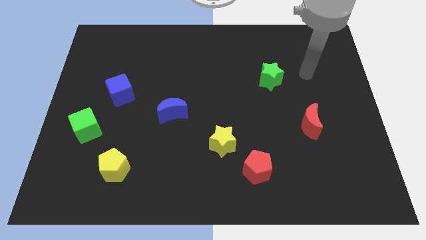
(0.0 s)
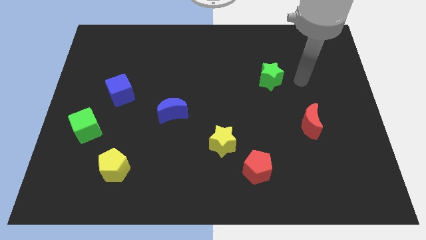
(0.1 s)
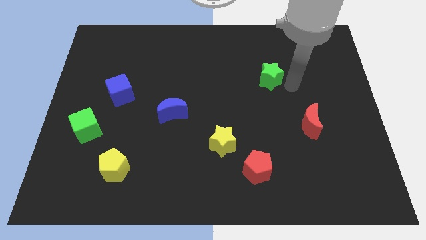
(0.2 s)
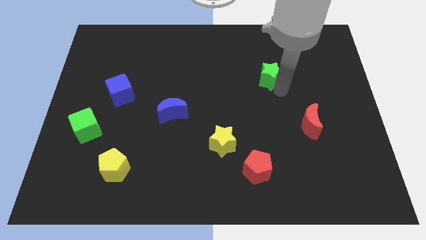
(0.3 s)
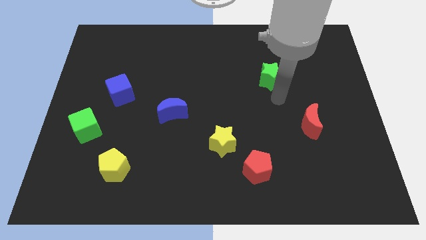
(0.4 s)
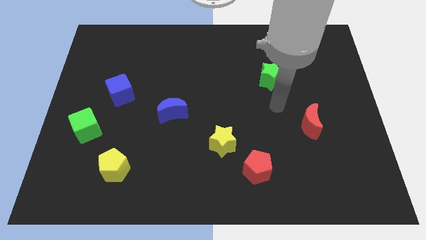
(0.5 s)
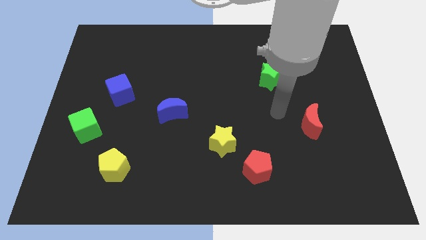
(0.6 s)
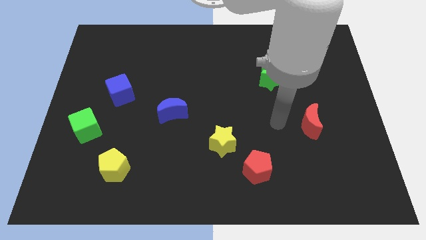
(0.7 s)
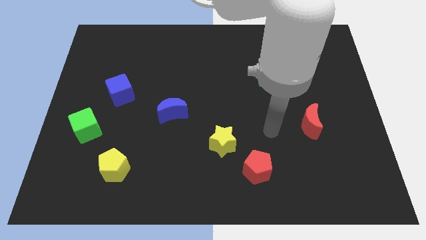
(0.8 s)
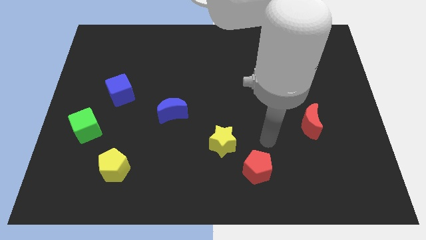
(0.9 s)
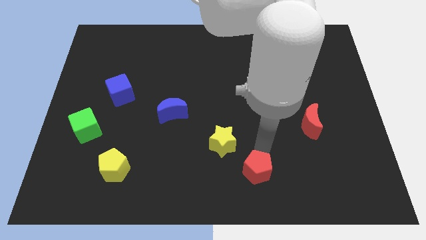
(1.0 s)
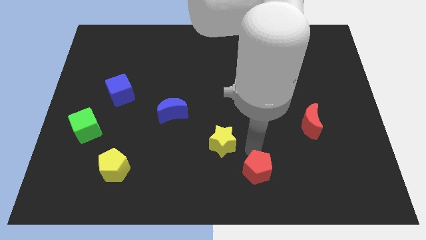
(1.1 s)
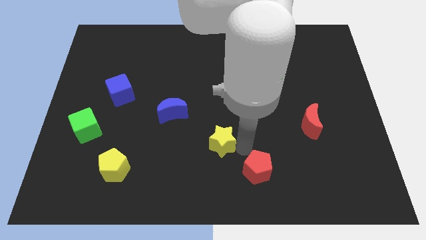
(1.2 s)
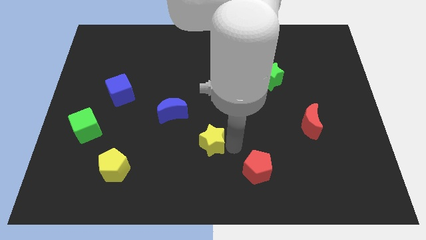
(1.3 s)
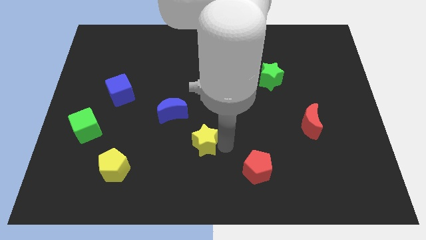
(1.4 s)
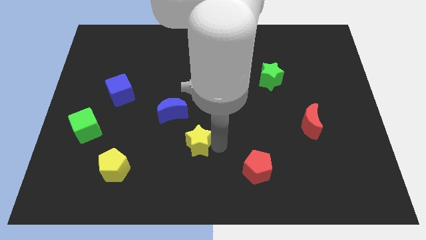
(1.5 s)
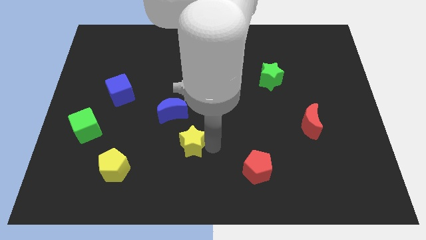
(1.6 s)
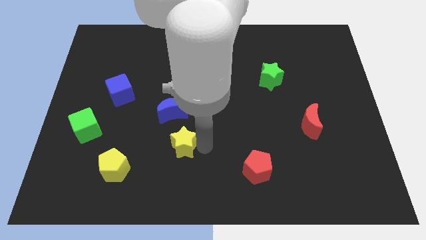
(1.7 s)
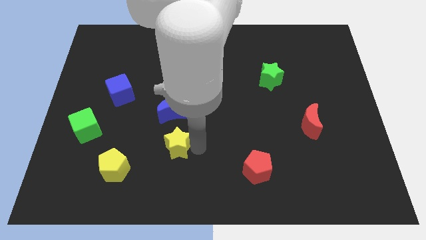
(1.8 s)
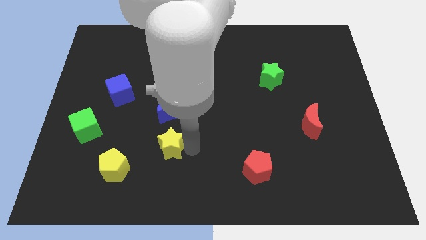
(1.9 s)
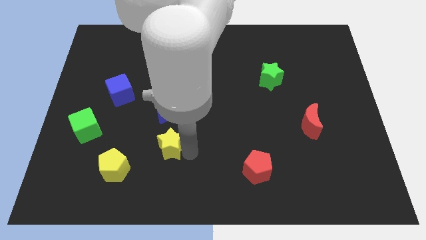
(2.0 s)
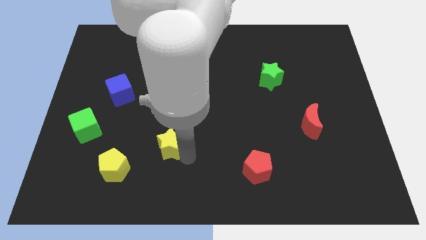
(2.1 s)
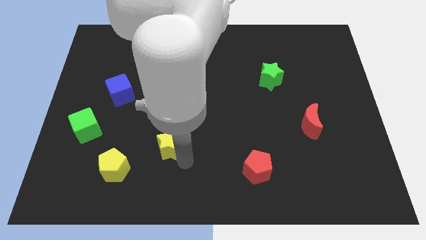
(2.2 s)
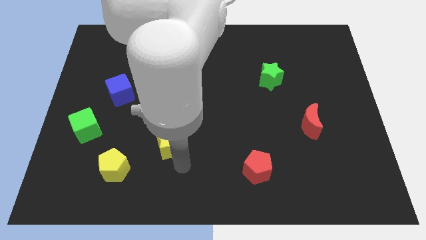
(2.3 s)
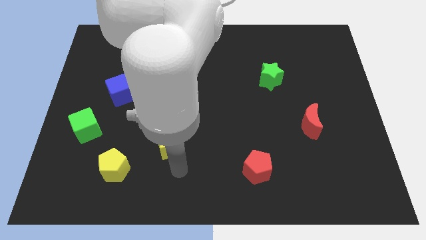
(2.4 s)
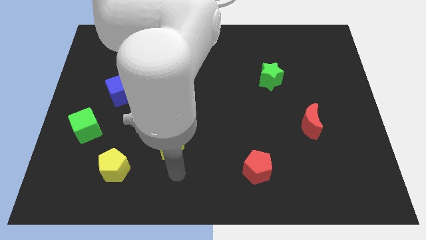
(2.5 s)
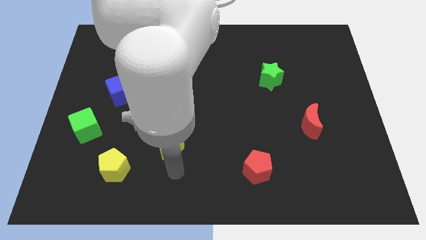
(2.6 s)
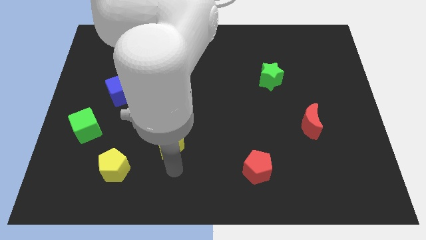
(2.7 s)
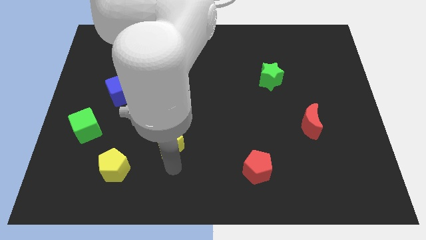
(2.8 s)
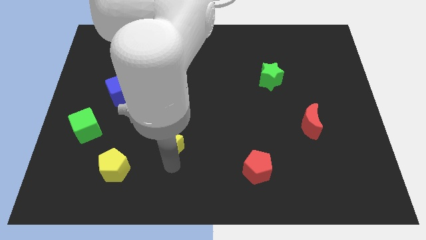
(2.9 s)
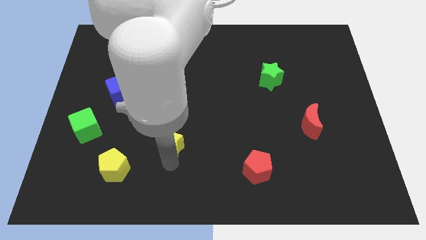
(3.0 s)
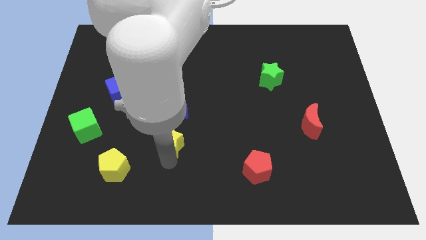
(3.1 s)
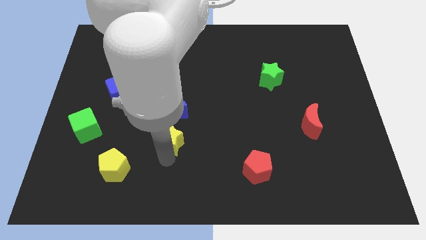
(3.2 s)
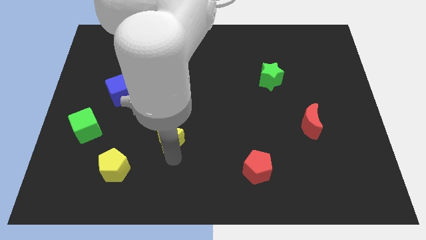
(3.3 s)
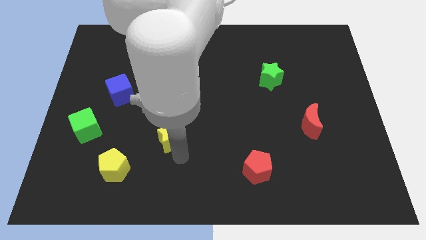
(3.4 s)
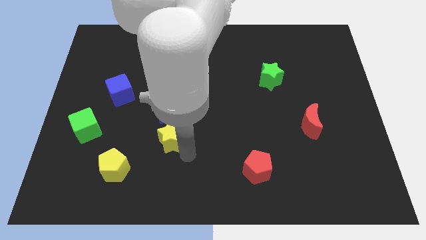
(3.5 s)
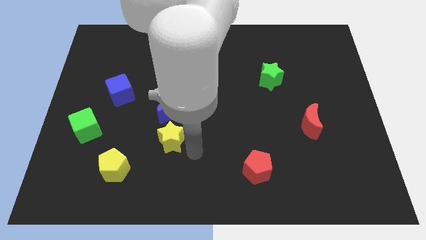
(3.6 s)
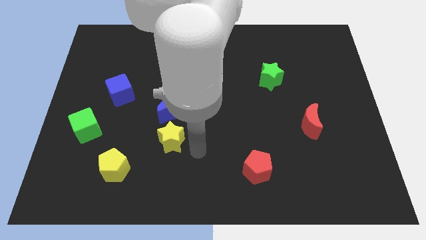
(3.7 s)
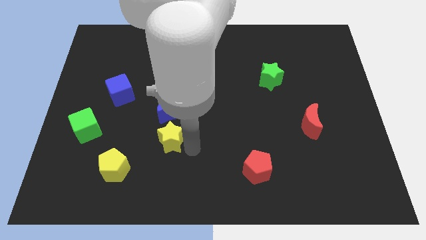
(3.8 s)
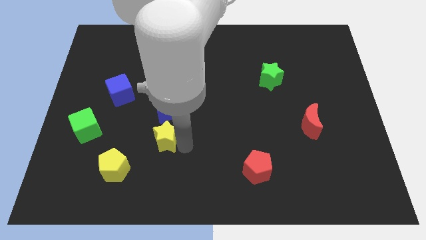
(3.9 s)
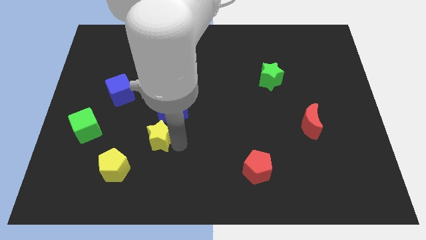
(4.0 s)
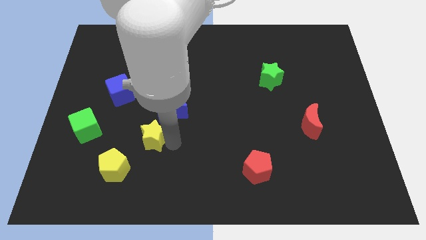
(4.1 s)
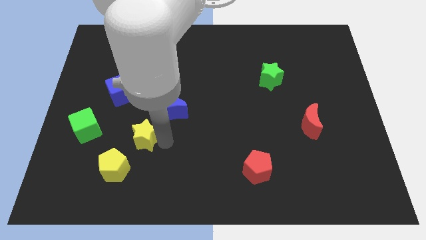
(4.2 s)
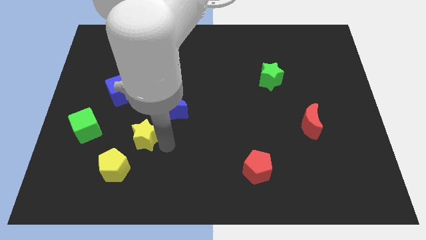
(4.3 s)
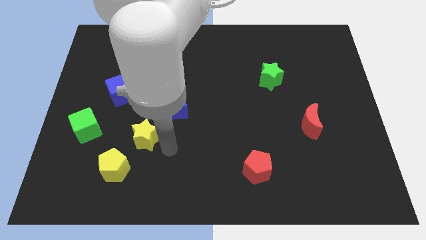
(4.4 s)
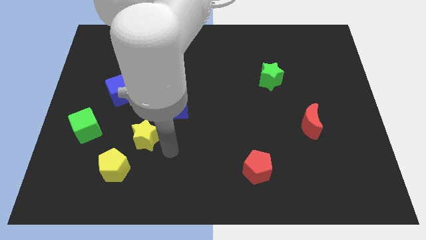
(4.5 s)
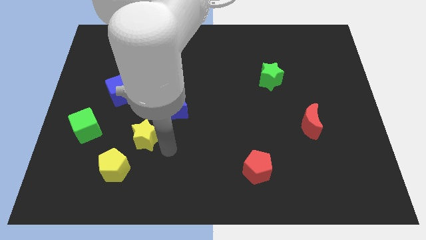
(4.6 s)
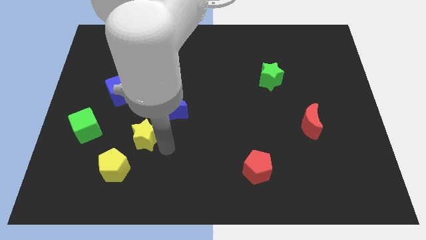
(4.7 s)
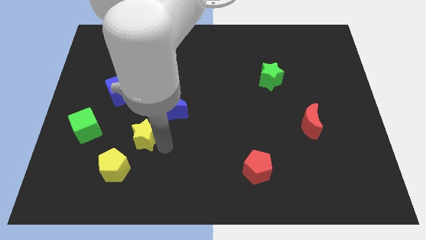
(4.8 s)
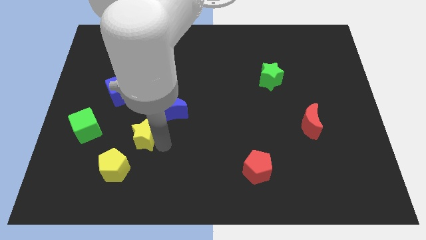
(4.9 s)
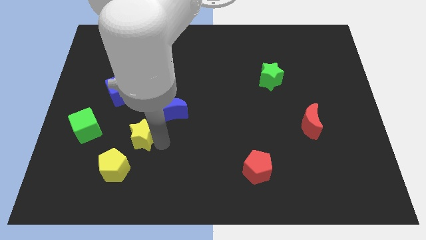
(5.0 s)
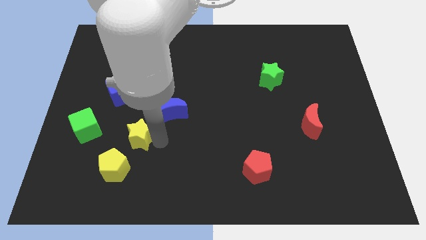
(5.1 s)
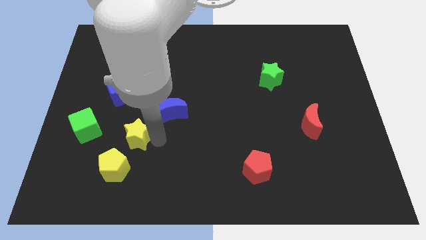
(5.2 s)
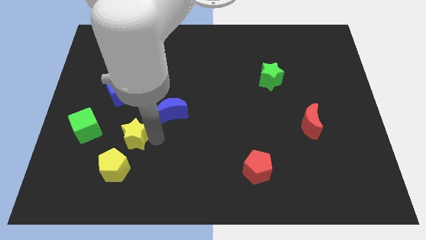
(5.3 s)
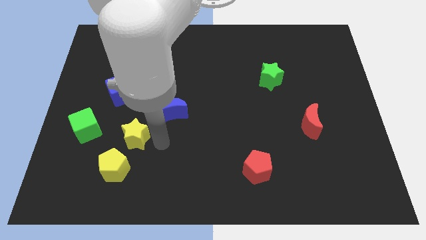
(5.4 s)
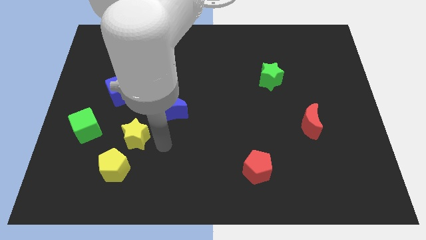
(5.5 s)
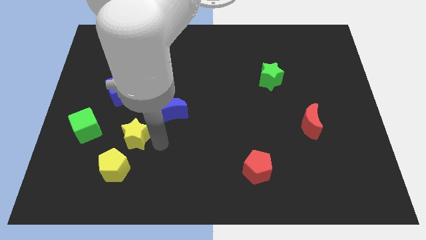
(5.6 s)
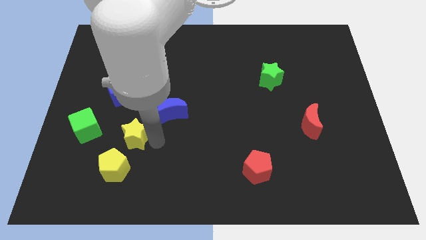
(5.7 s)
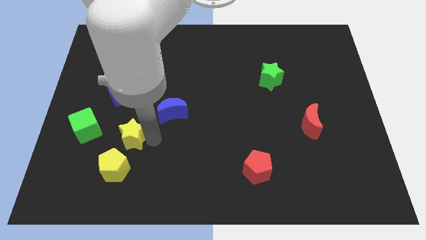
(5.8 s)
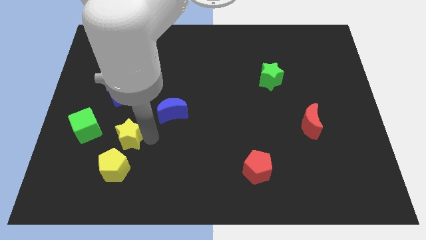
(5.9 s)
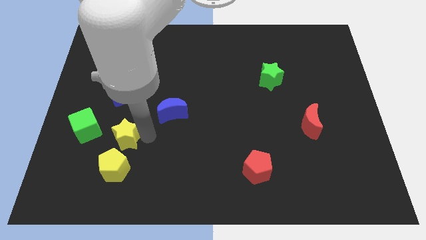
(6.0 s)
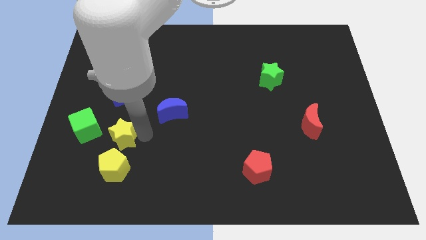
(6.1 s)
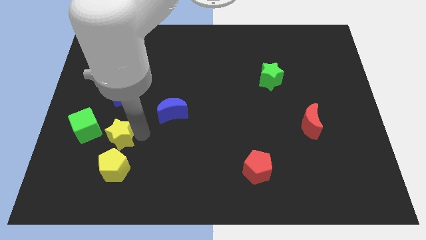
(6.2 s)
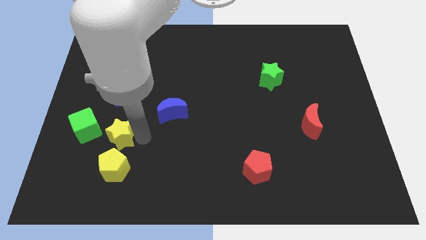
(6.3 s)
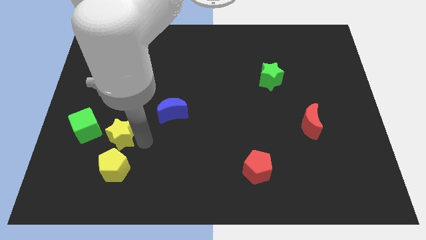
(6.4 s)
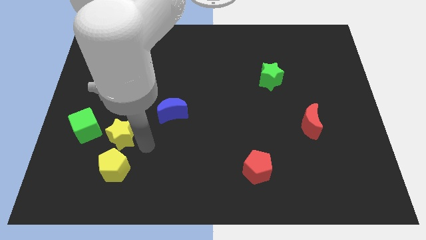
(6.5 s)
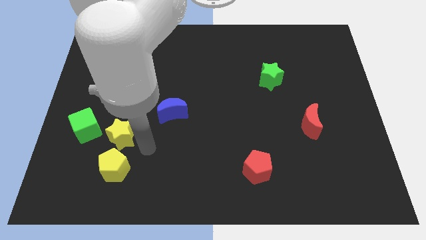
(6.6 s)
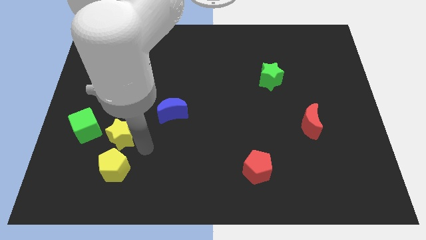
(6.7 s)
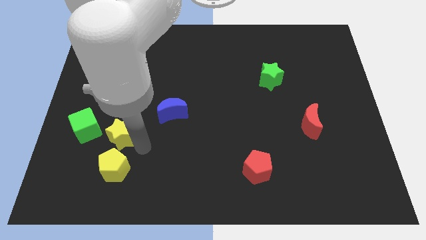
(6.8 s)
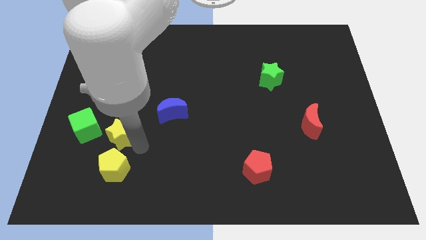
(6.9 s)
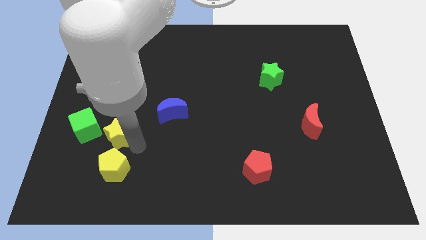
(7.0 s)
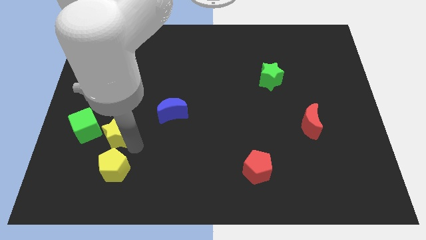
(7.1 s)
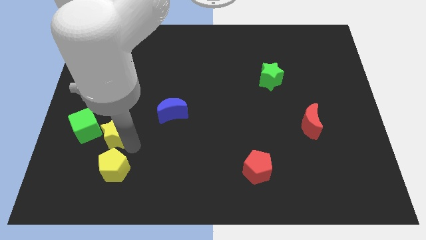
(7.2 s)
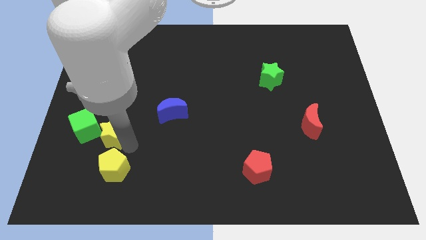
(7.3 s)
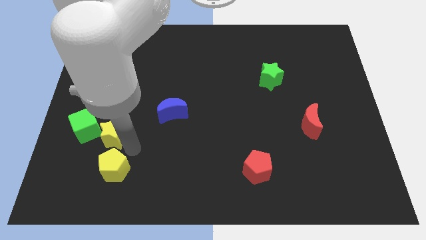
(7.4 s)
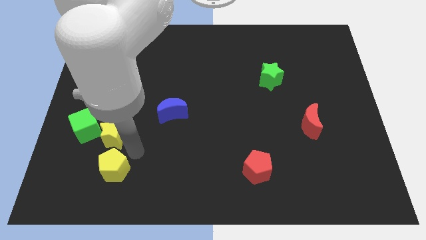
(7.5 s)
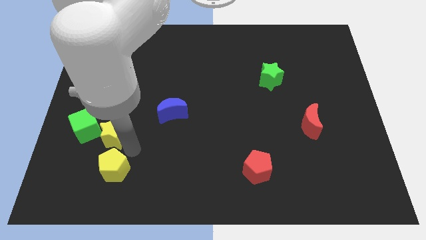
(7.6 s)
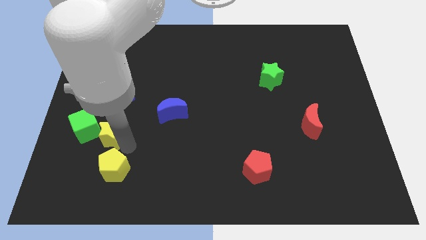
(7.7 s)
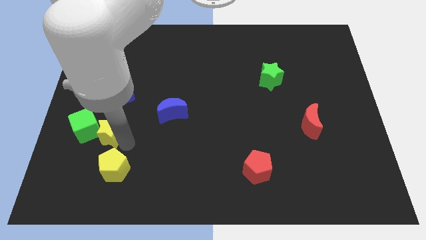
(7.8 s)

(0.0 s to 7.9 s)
slide the yellow star close to the green cube
